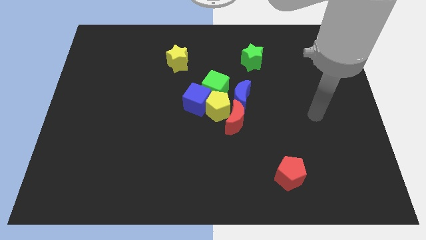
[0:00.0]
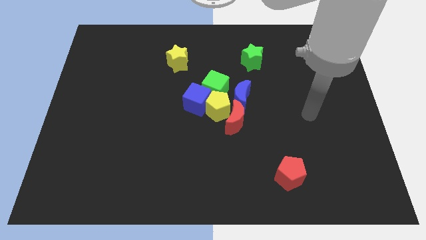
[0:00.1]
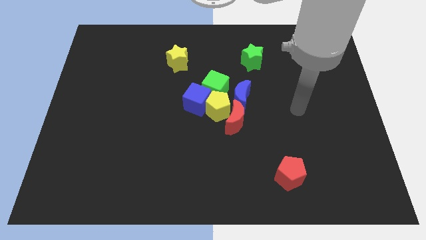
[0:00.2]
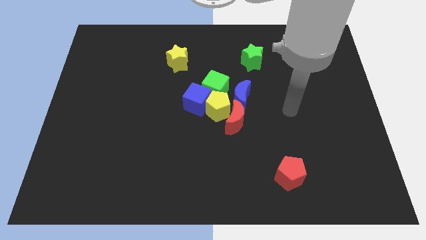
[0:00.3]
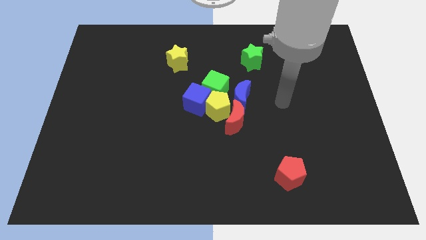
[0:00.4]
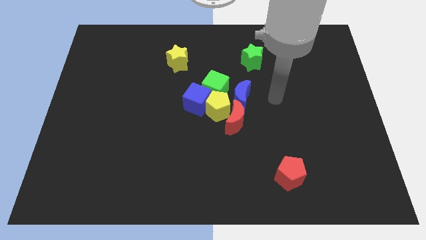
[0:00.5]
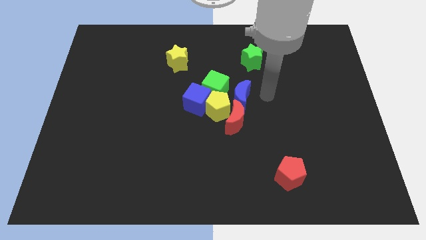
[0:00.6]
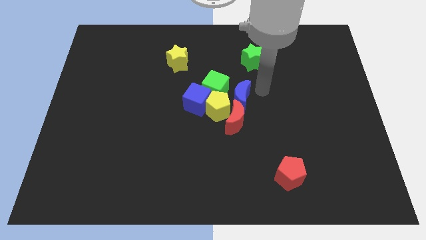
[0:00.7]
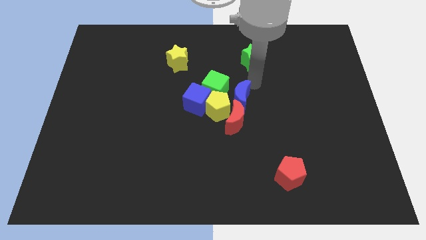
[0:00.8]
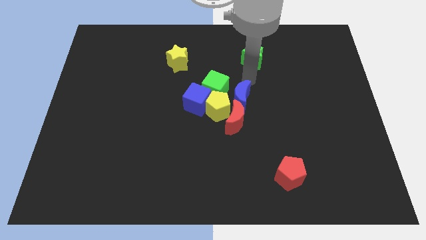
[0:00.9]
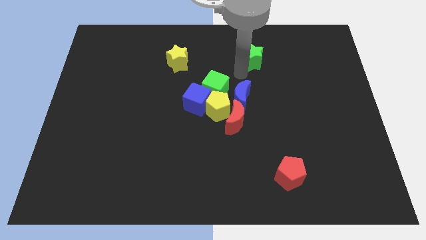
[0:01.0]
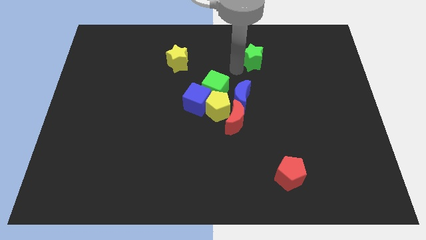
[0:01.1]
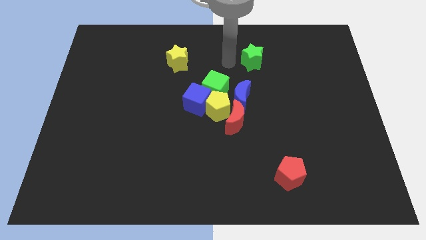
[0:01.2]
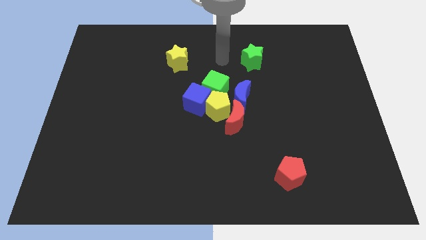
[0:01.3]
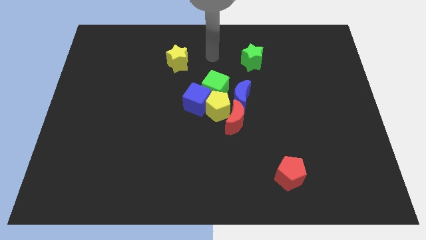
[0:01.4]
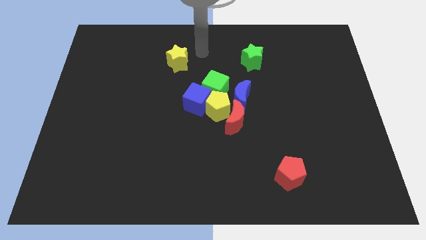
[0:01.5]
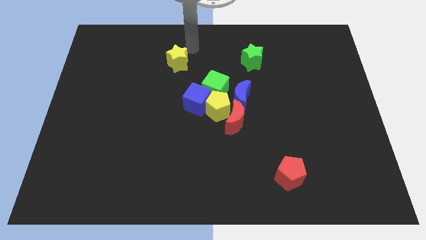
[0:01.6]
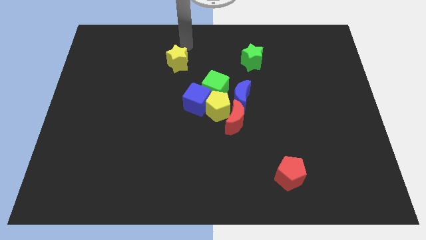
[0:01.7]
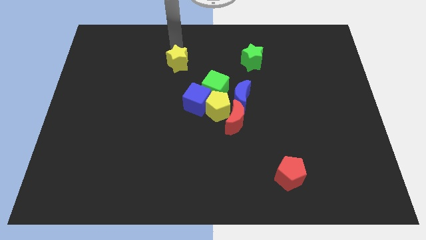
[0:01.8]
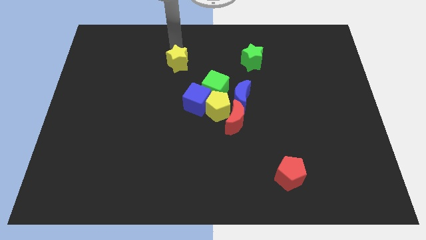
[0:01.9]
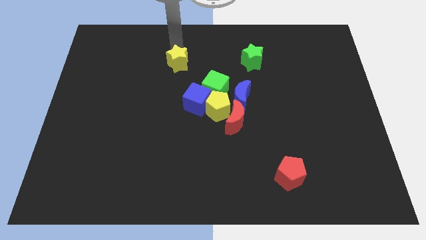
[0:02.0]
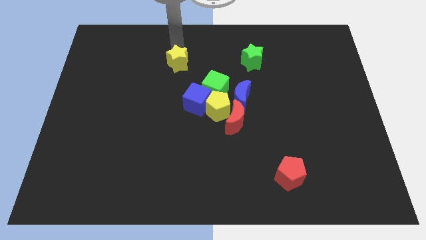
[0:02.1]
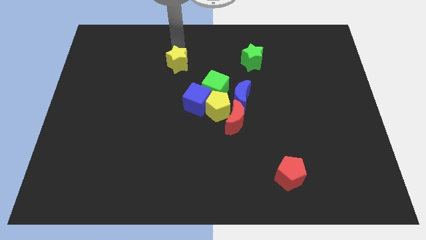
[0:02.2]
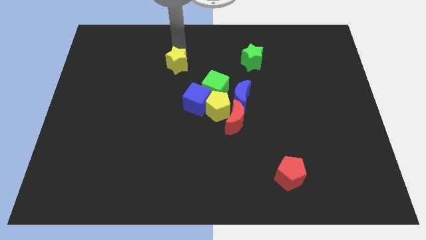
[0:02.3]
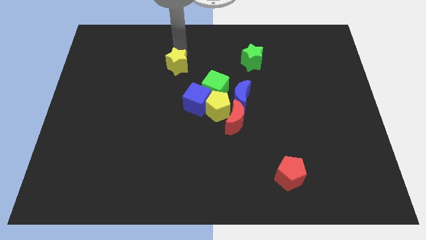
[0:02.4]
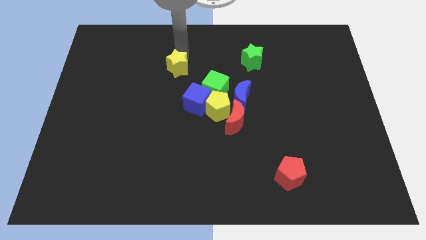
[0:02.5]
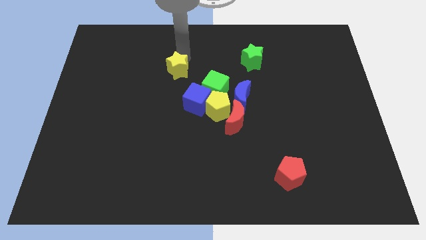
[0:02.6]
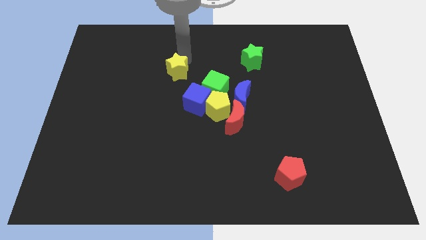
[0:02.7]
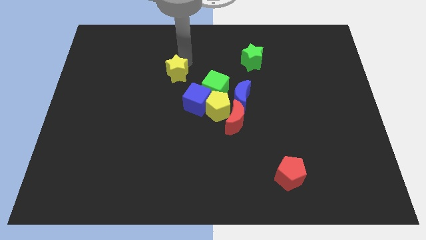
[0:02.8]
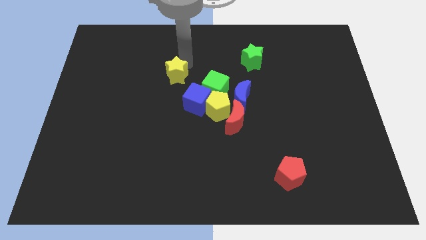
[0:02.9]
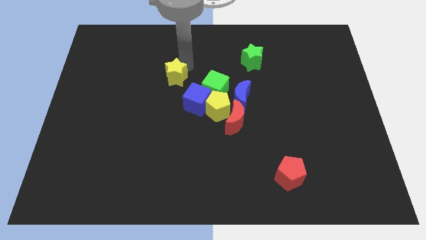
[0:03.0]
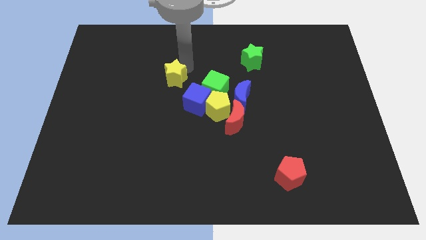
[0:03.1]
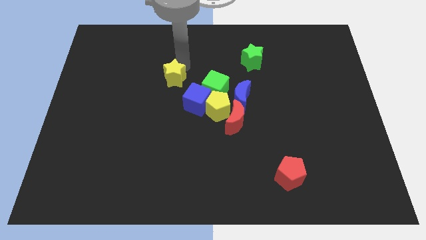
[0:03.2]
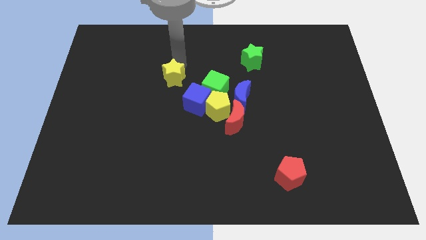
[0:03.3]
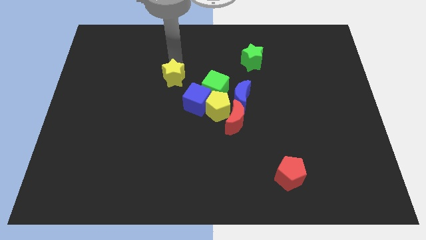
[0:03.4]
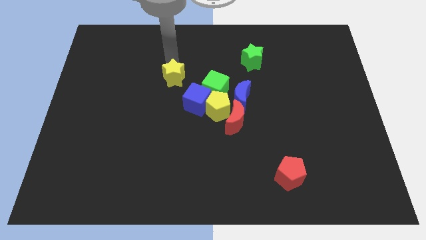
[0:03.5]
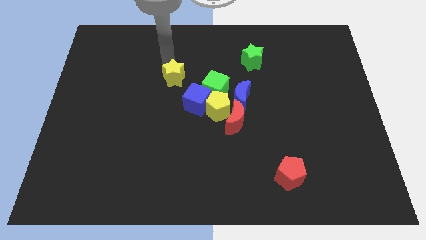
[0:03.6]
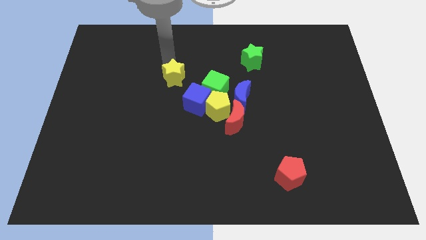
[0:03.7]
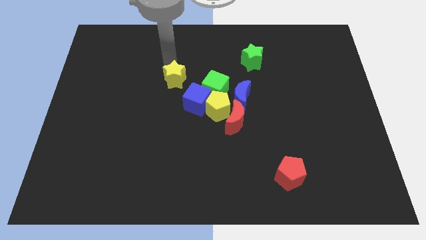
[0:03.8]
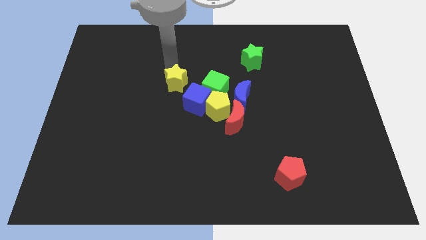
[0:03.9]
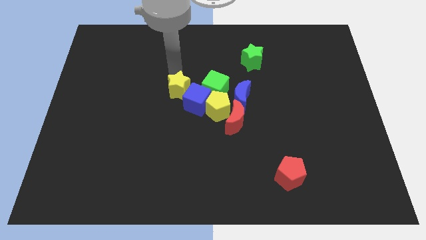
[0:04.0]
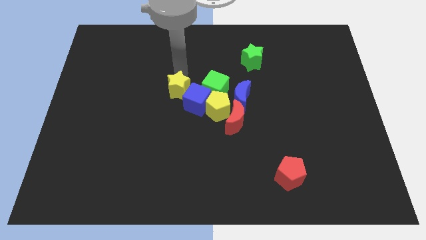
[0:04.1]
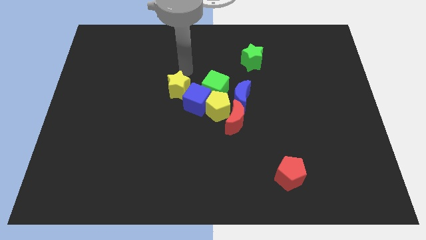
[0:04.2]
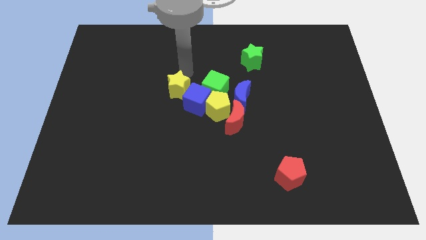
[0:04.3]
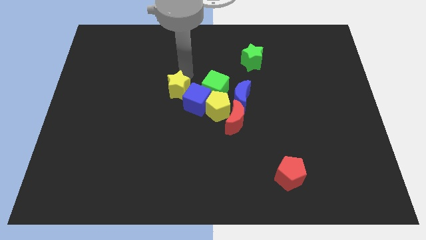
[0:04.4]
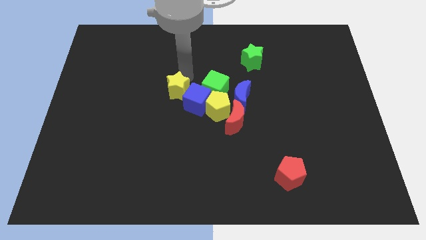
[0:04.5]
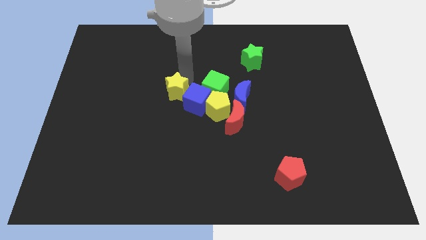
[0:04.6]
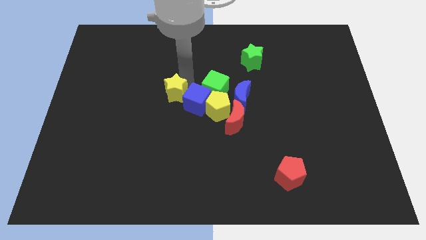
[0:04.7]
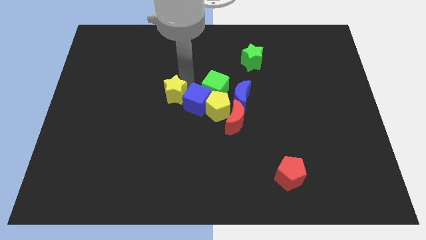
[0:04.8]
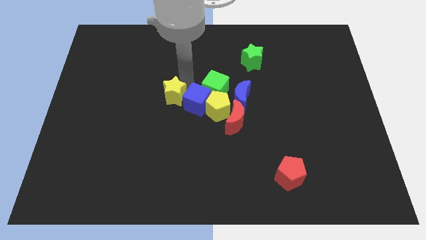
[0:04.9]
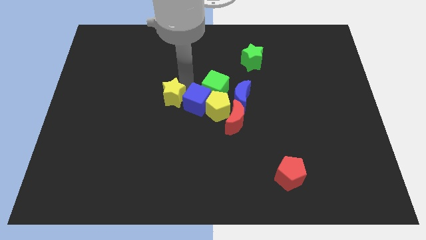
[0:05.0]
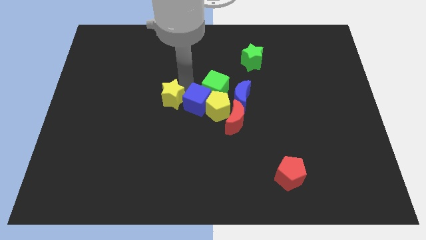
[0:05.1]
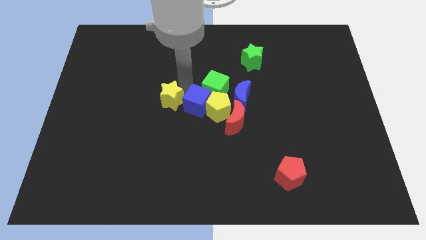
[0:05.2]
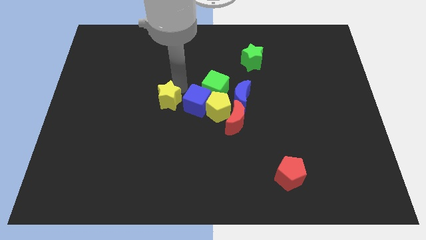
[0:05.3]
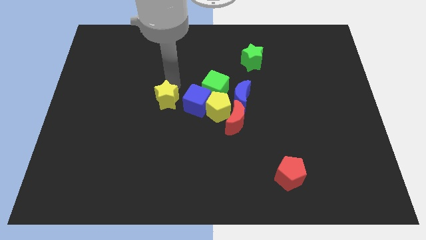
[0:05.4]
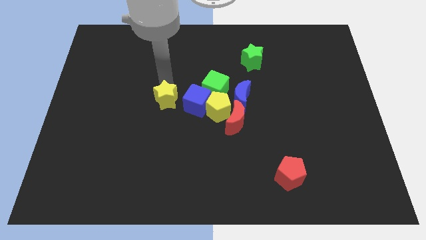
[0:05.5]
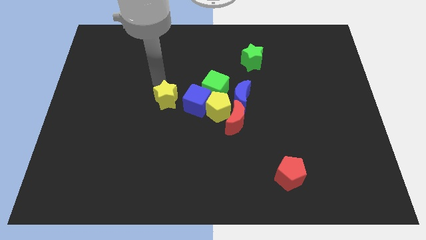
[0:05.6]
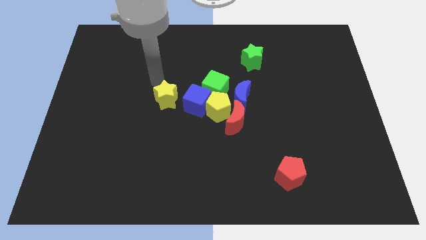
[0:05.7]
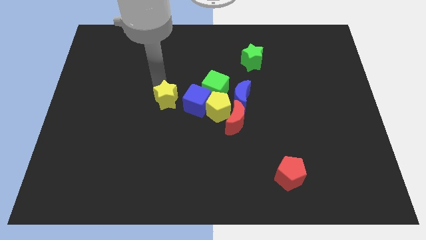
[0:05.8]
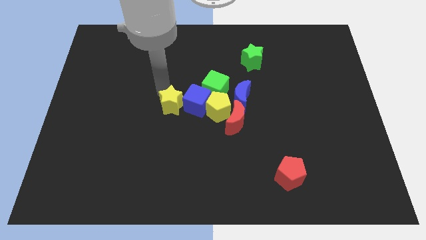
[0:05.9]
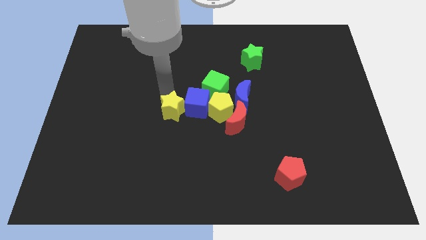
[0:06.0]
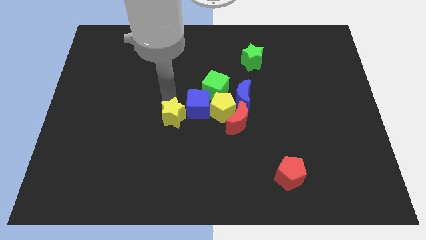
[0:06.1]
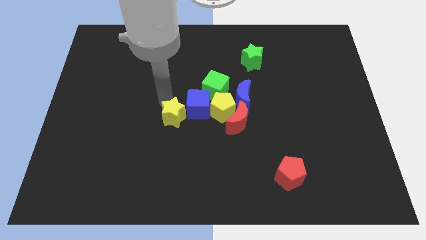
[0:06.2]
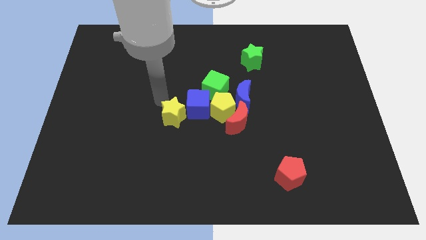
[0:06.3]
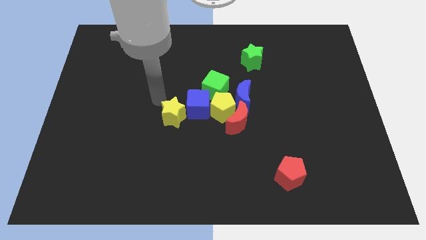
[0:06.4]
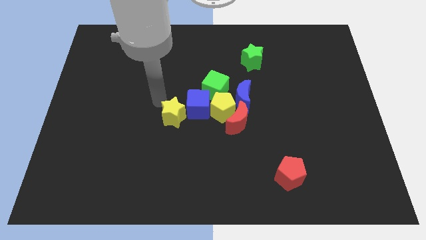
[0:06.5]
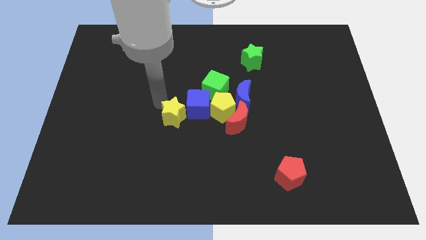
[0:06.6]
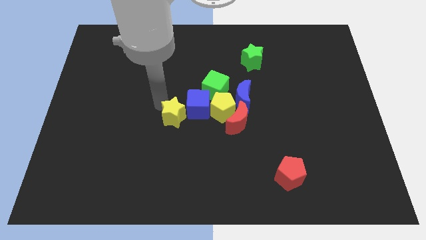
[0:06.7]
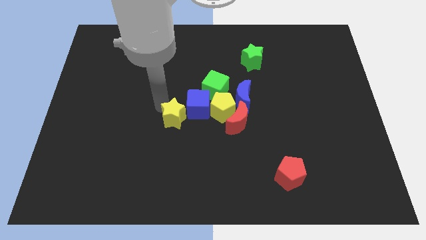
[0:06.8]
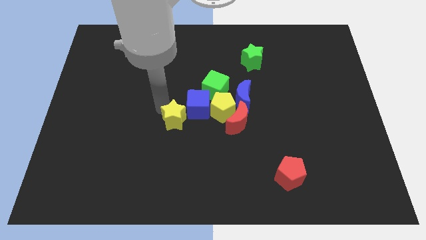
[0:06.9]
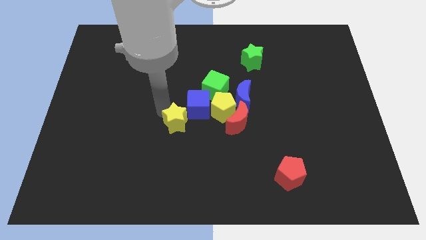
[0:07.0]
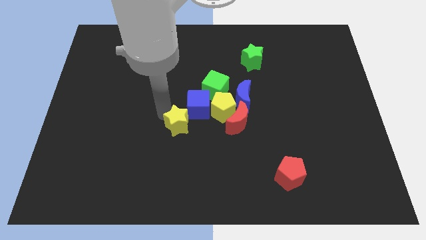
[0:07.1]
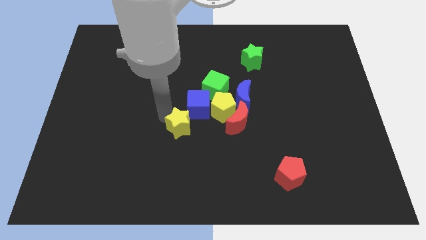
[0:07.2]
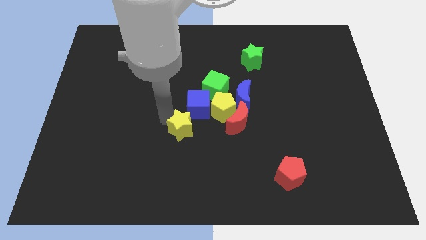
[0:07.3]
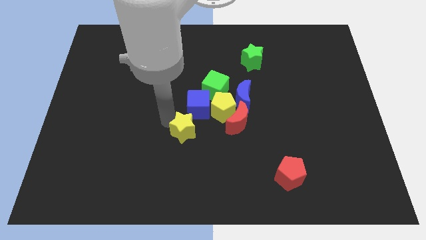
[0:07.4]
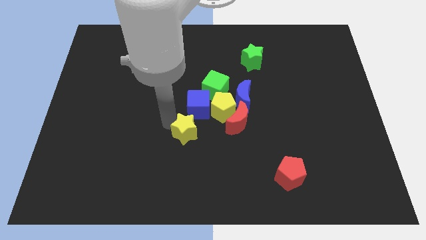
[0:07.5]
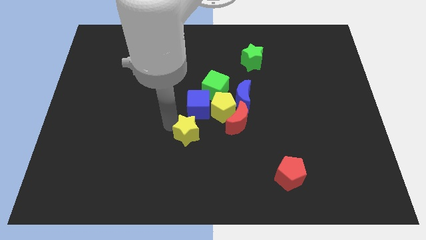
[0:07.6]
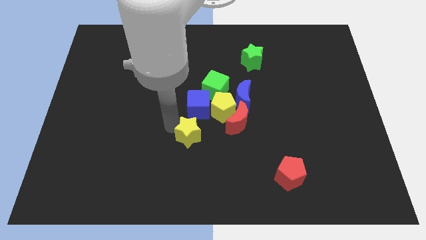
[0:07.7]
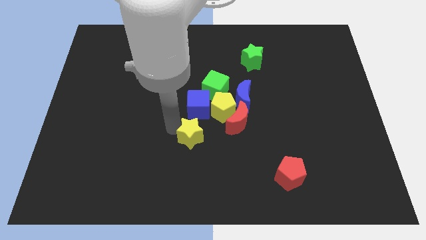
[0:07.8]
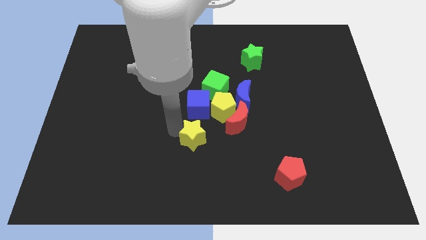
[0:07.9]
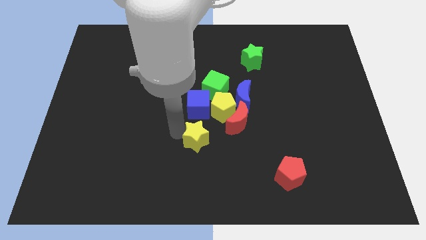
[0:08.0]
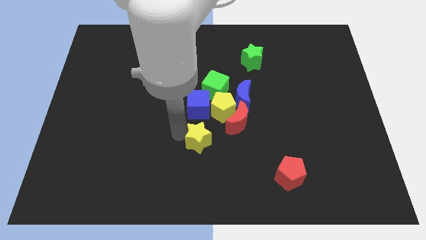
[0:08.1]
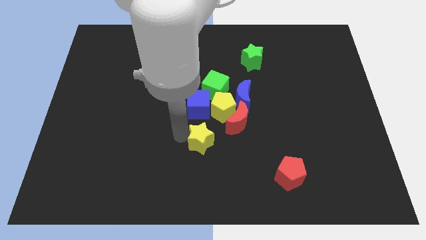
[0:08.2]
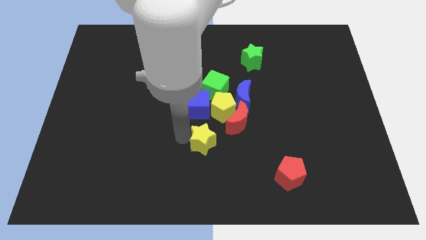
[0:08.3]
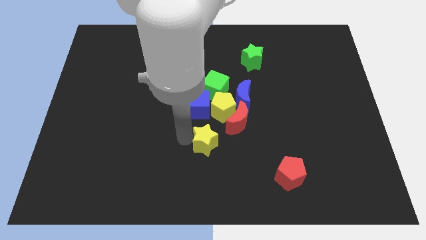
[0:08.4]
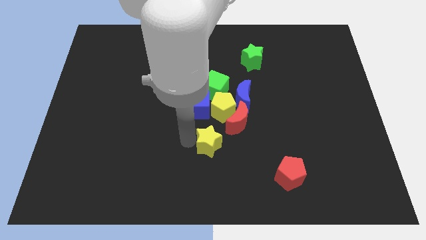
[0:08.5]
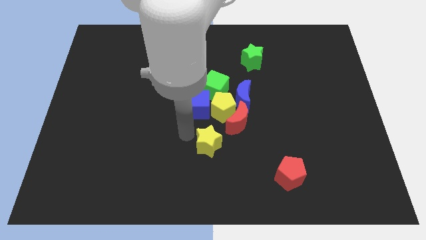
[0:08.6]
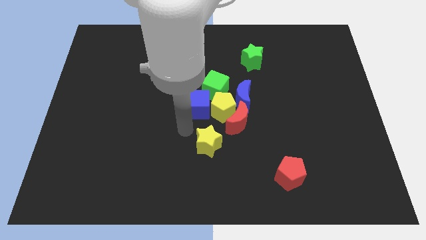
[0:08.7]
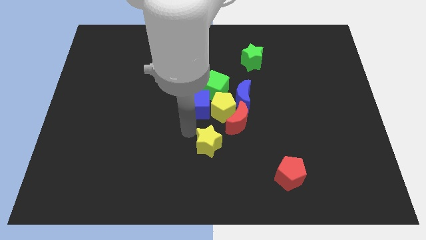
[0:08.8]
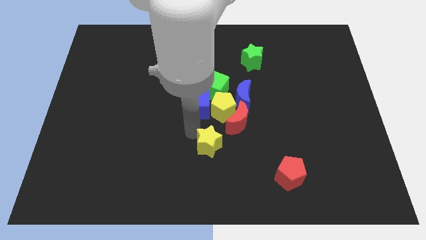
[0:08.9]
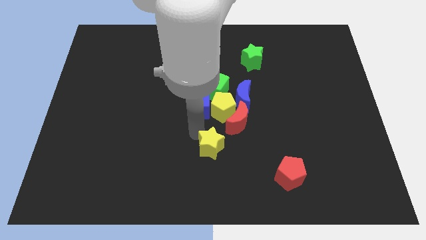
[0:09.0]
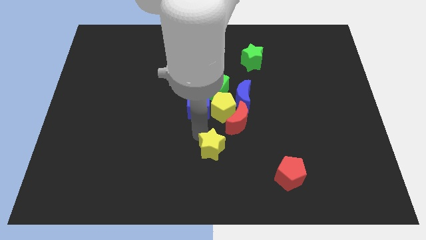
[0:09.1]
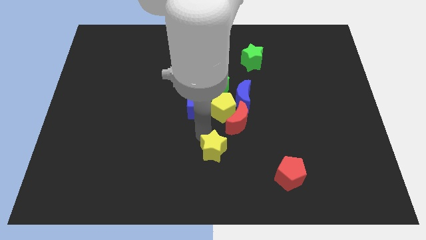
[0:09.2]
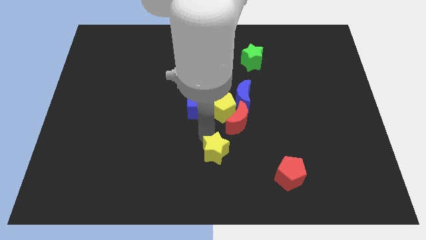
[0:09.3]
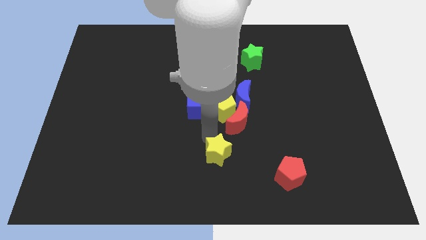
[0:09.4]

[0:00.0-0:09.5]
push the yellow star to the bottom side of the red moon
